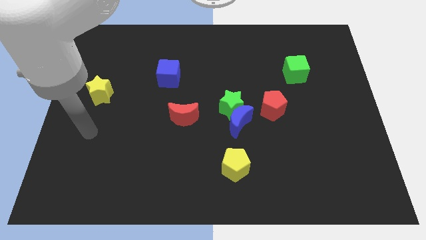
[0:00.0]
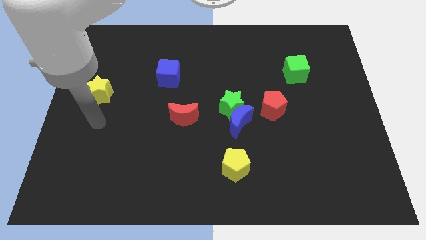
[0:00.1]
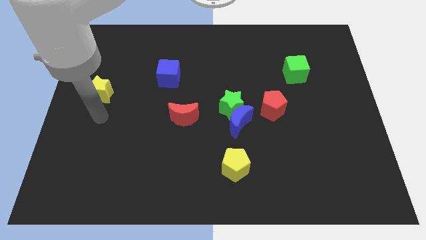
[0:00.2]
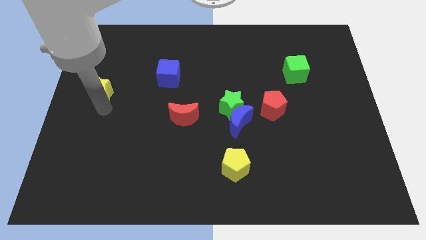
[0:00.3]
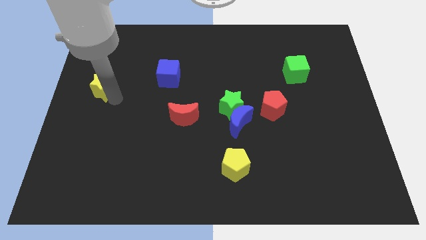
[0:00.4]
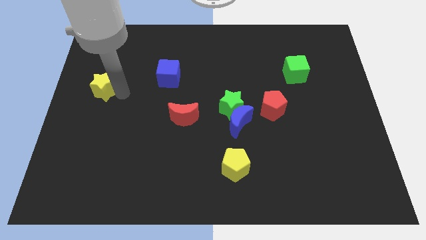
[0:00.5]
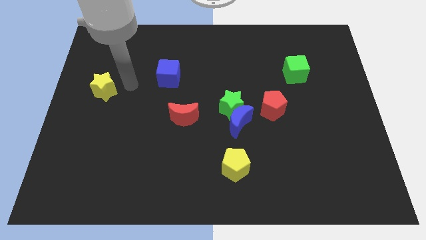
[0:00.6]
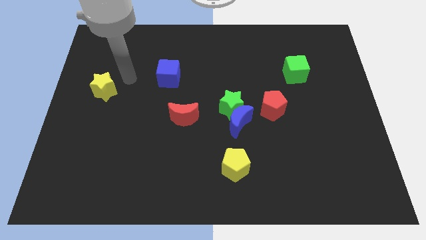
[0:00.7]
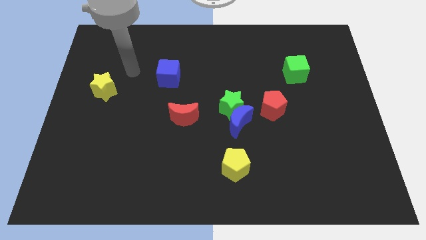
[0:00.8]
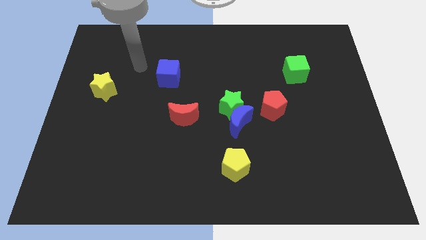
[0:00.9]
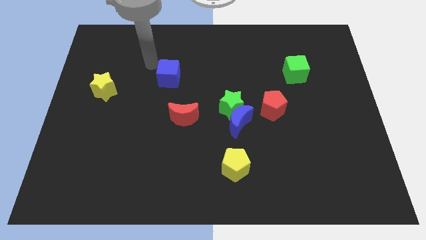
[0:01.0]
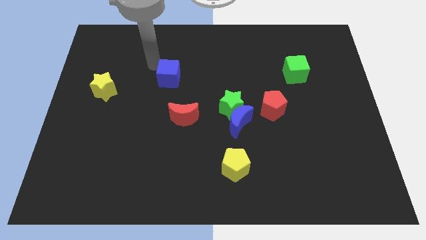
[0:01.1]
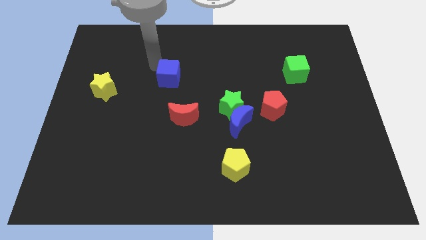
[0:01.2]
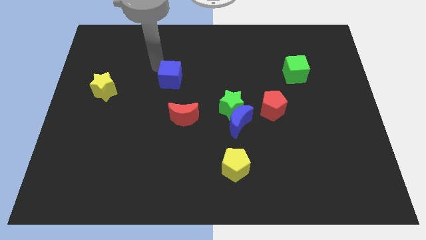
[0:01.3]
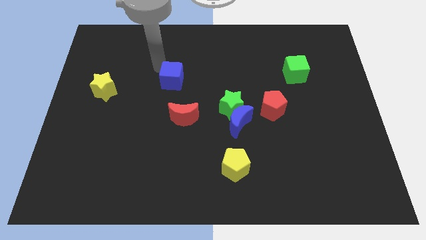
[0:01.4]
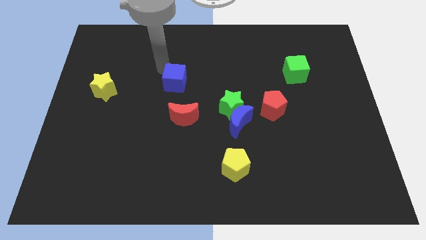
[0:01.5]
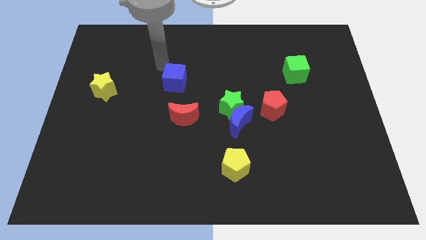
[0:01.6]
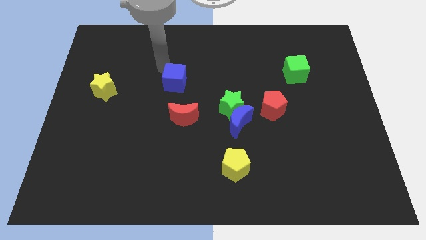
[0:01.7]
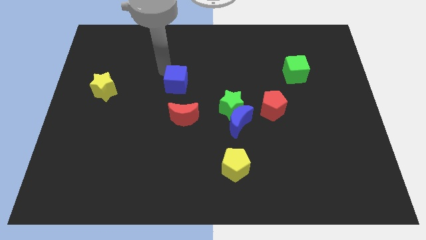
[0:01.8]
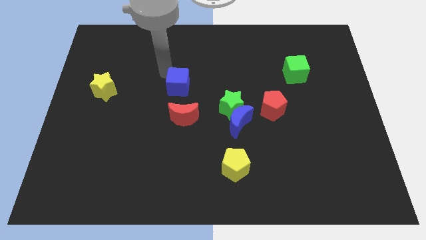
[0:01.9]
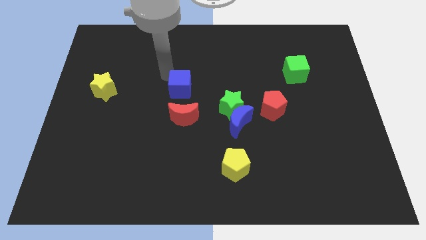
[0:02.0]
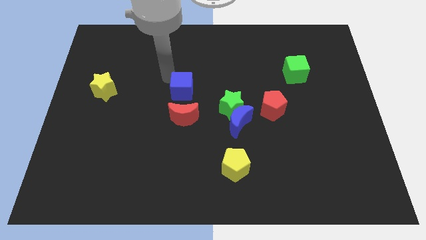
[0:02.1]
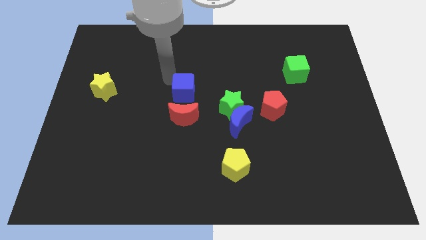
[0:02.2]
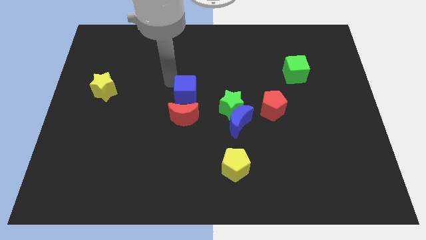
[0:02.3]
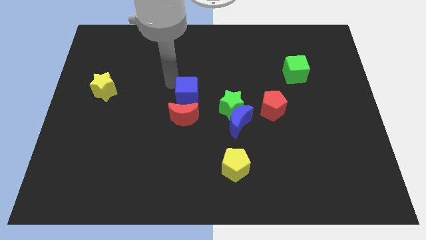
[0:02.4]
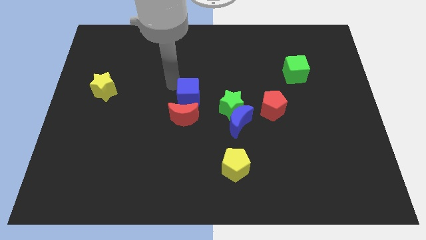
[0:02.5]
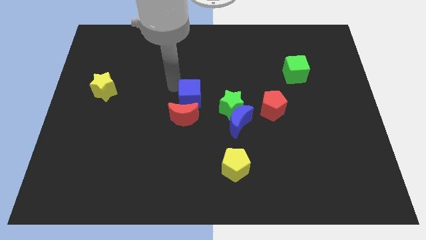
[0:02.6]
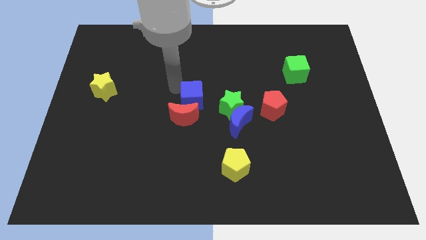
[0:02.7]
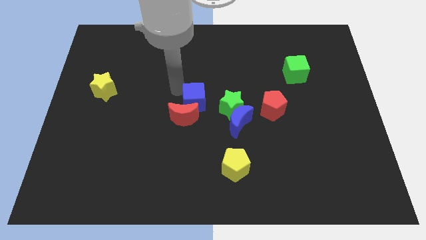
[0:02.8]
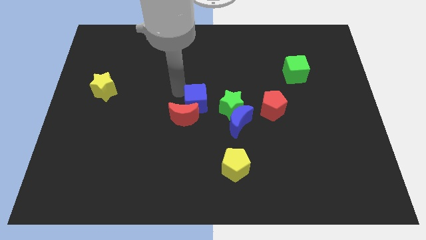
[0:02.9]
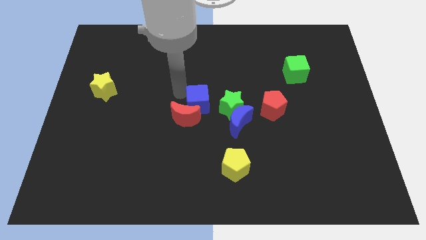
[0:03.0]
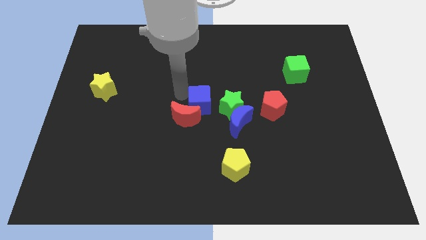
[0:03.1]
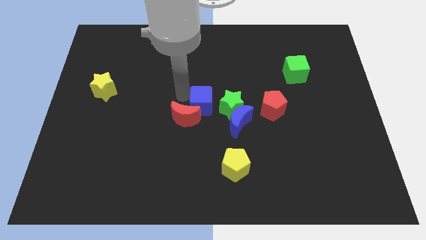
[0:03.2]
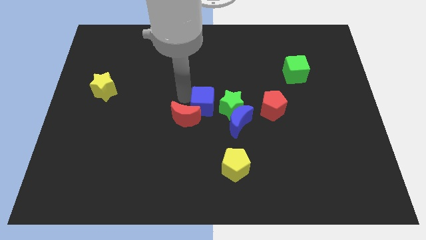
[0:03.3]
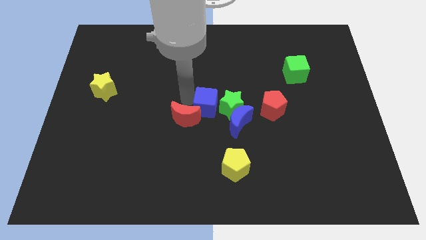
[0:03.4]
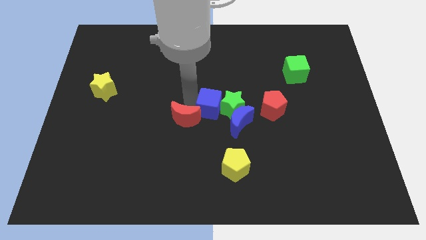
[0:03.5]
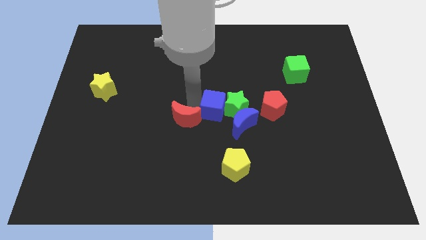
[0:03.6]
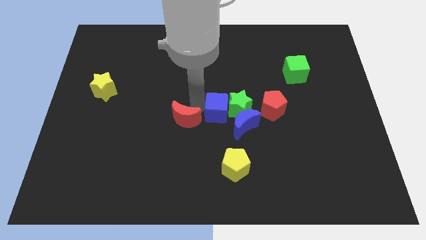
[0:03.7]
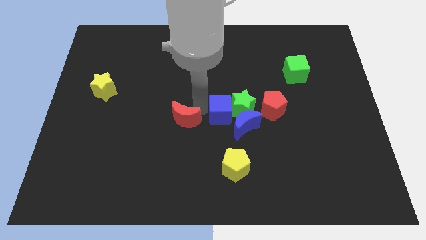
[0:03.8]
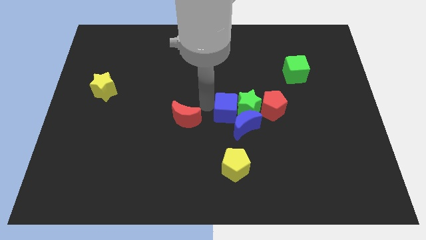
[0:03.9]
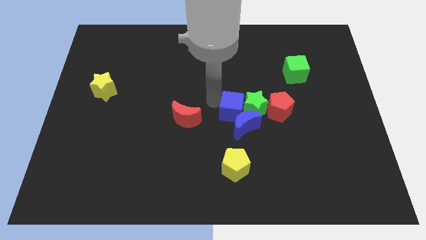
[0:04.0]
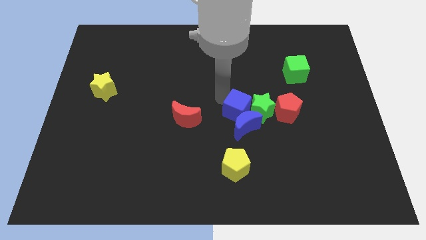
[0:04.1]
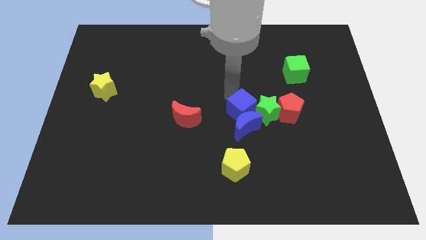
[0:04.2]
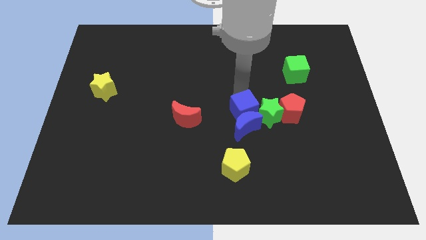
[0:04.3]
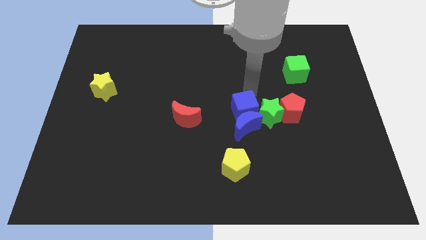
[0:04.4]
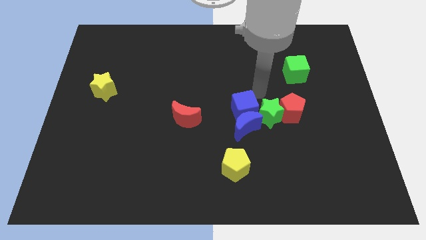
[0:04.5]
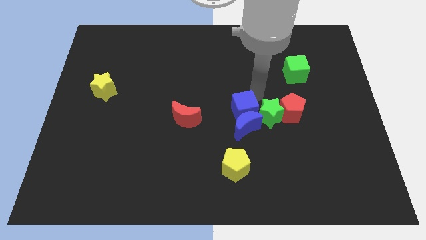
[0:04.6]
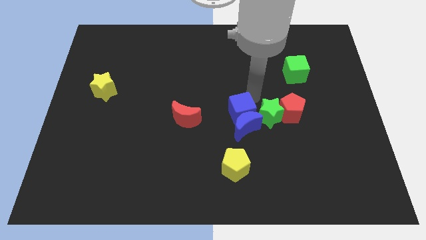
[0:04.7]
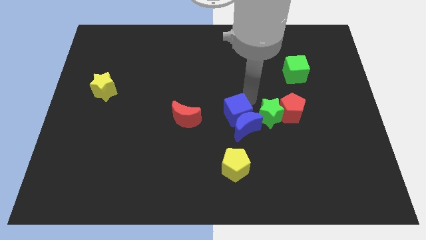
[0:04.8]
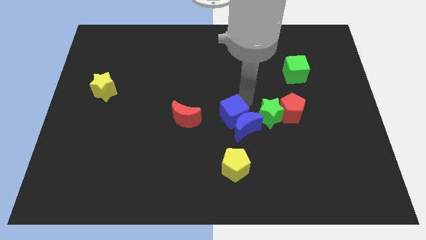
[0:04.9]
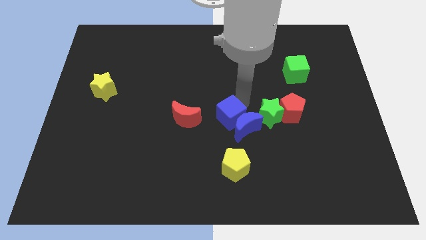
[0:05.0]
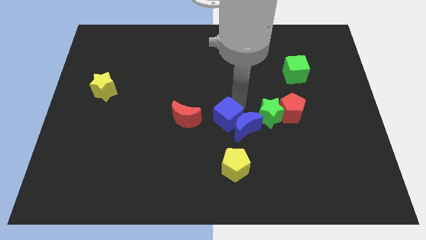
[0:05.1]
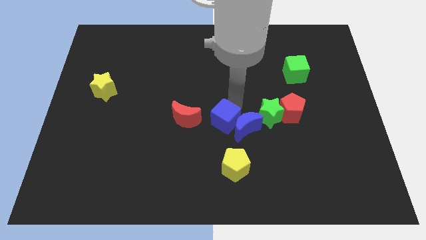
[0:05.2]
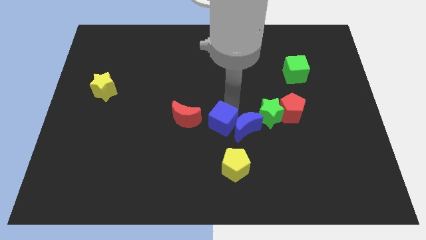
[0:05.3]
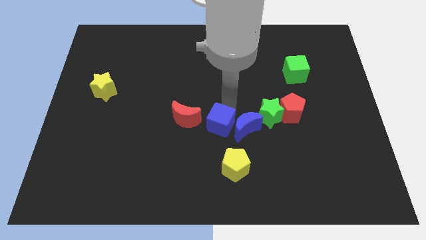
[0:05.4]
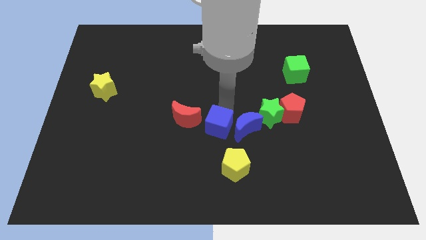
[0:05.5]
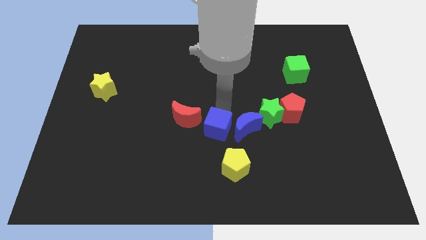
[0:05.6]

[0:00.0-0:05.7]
push the blue cube to the top left side of the yellow pentagon

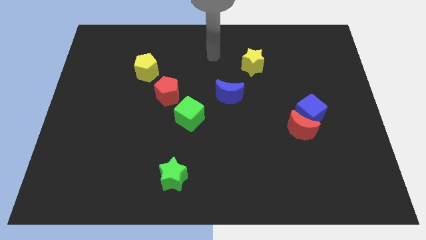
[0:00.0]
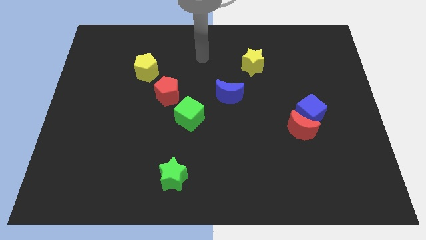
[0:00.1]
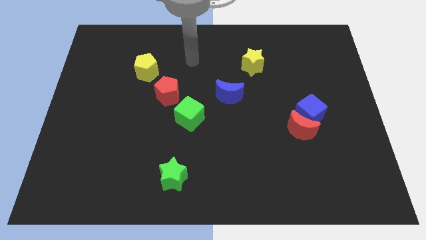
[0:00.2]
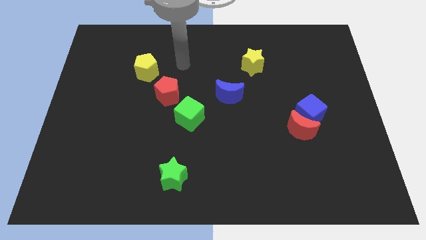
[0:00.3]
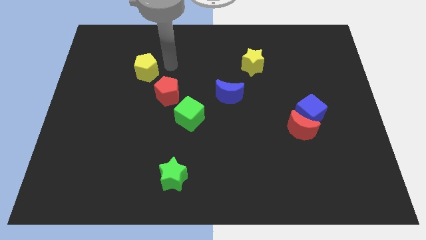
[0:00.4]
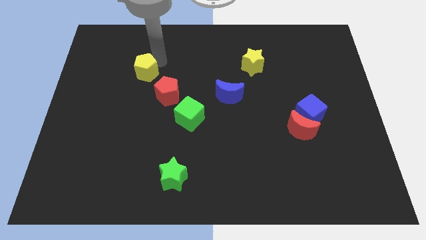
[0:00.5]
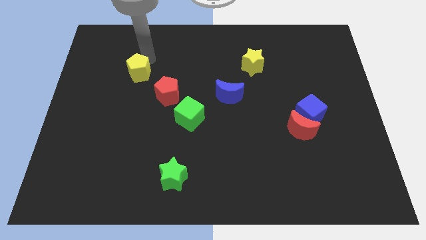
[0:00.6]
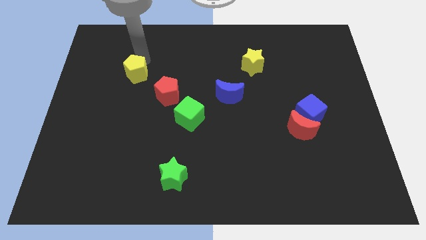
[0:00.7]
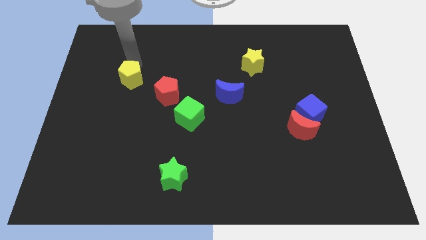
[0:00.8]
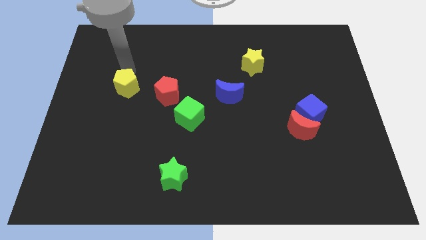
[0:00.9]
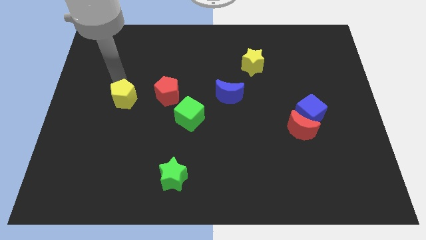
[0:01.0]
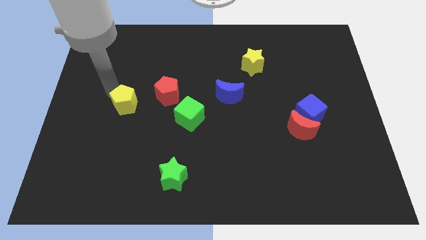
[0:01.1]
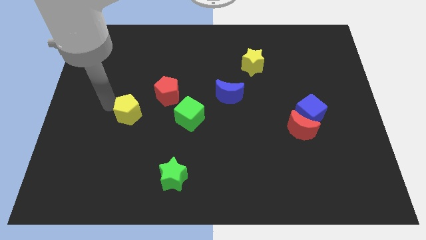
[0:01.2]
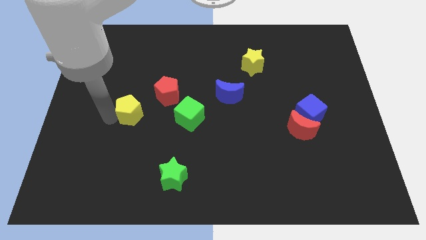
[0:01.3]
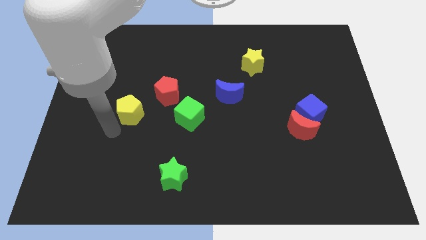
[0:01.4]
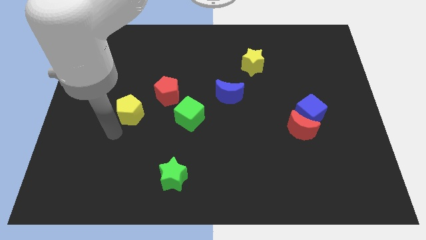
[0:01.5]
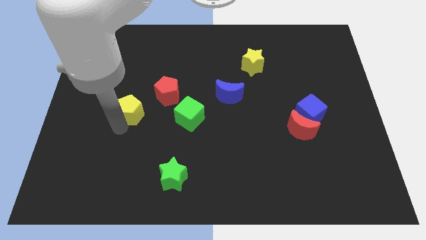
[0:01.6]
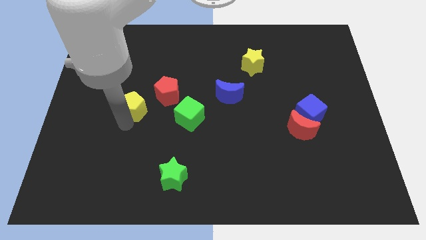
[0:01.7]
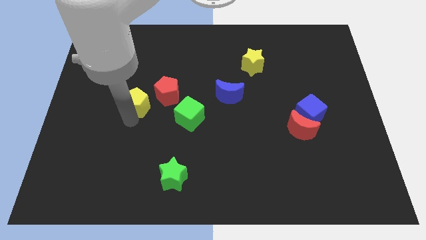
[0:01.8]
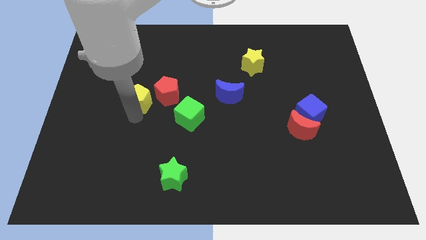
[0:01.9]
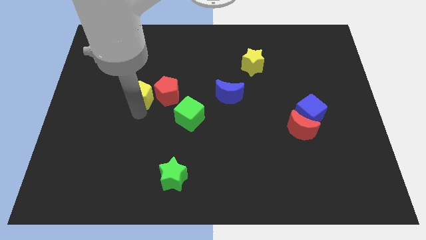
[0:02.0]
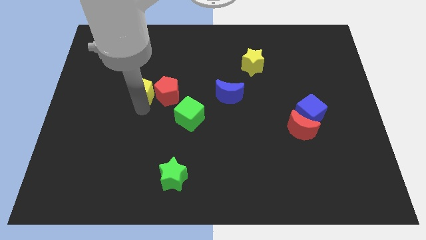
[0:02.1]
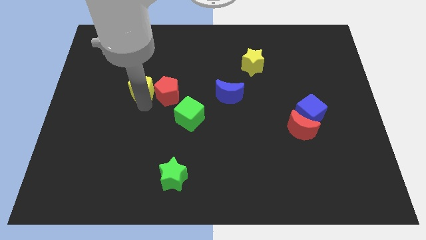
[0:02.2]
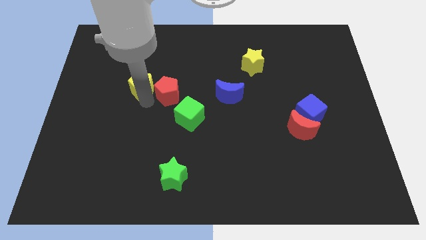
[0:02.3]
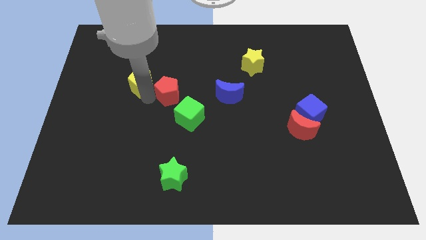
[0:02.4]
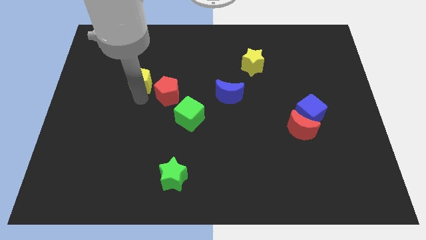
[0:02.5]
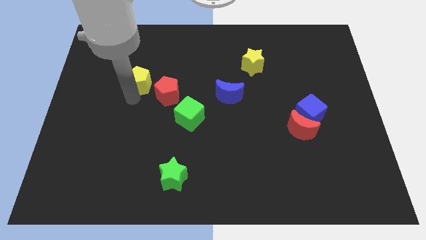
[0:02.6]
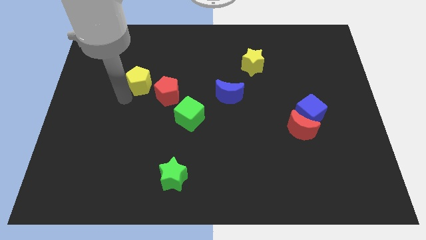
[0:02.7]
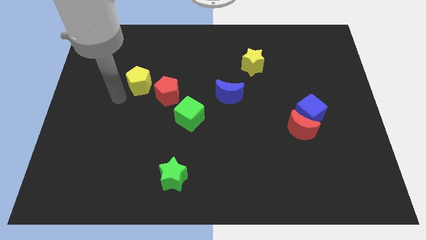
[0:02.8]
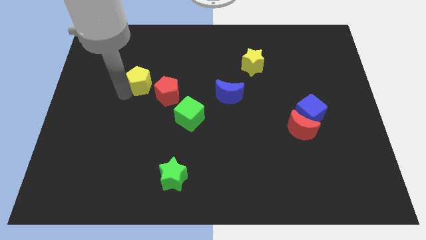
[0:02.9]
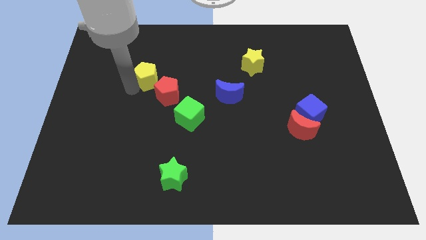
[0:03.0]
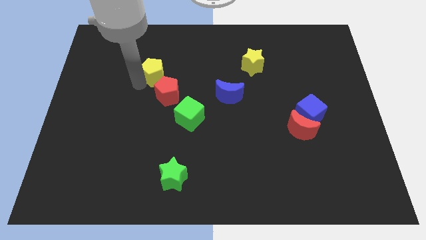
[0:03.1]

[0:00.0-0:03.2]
push the yellow pentagon to the top of the red pentagon
